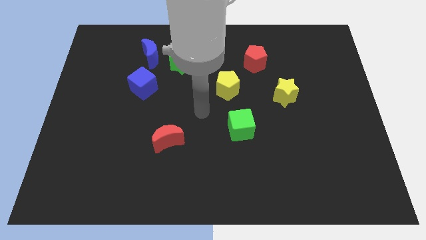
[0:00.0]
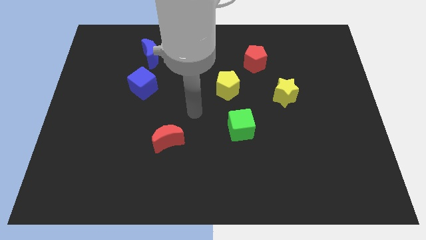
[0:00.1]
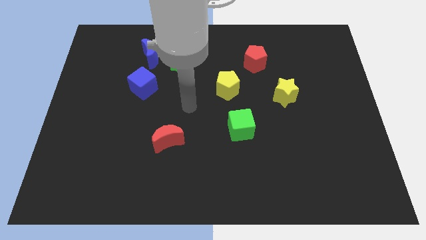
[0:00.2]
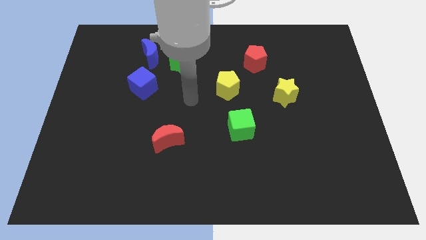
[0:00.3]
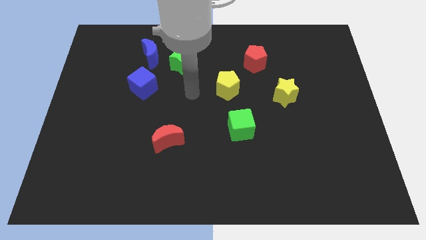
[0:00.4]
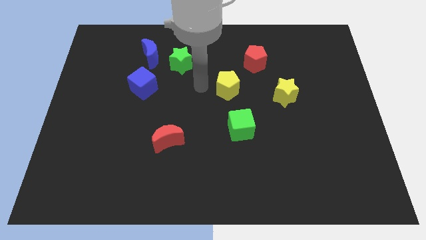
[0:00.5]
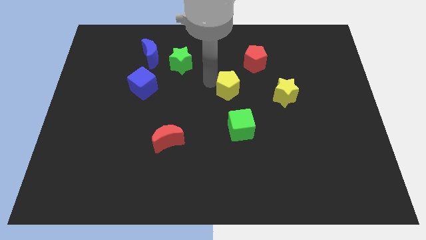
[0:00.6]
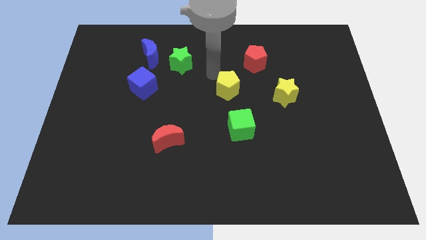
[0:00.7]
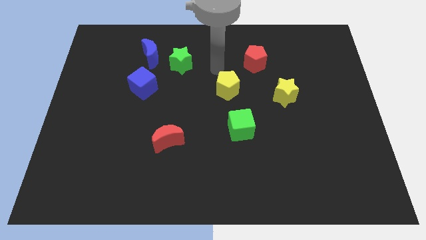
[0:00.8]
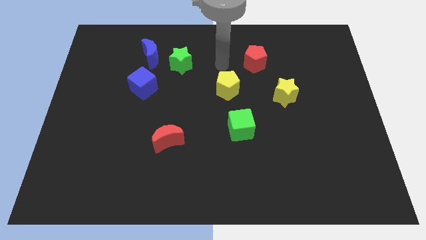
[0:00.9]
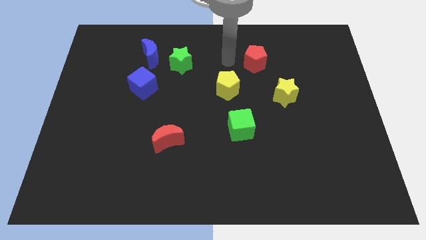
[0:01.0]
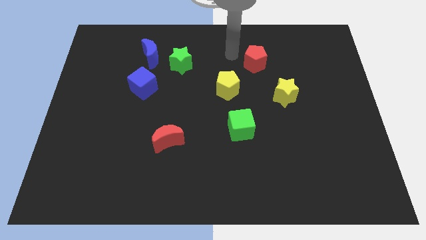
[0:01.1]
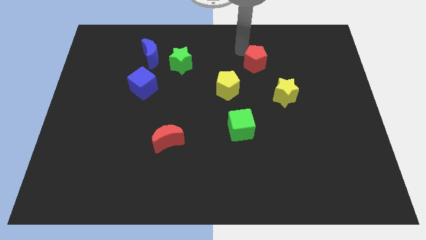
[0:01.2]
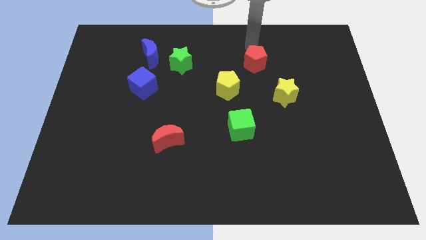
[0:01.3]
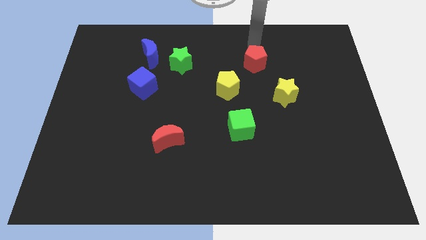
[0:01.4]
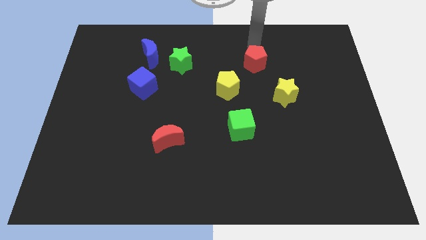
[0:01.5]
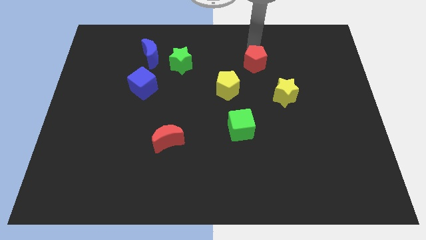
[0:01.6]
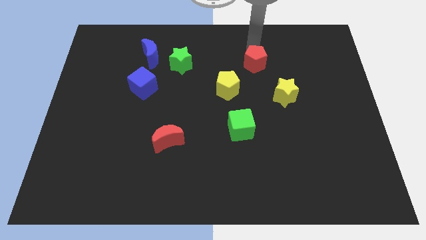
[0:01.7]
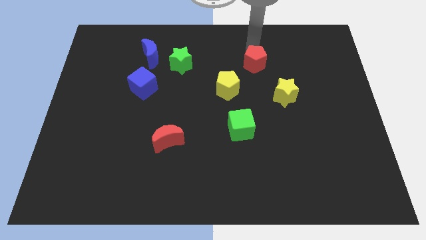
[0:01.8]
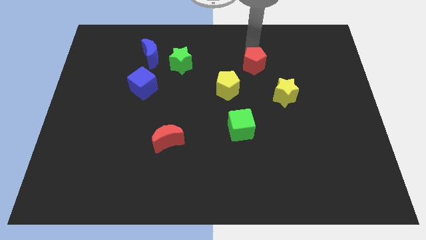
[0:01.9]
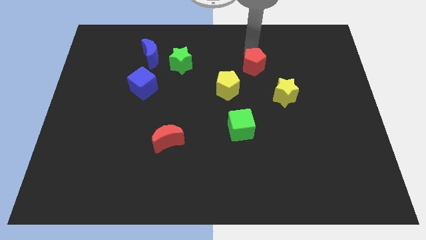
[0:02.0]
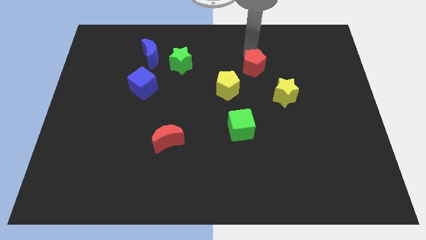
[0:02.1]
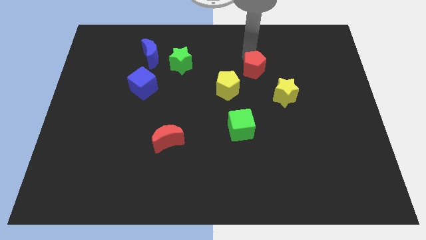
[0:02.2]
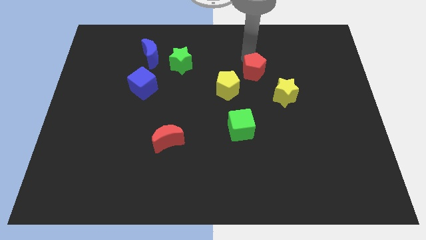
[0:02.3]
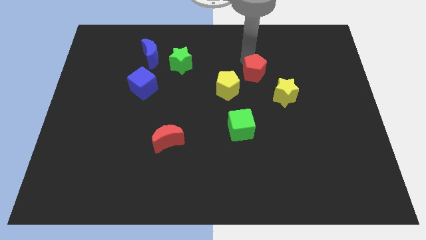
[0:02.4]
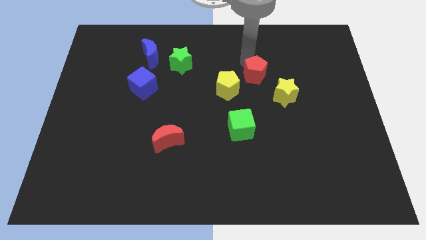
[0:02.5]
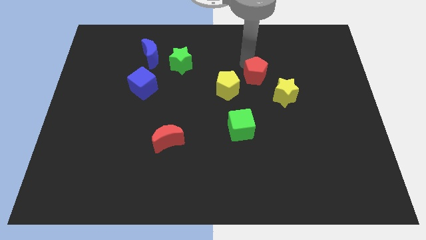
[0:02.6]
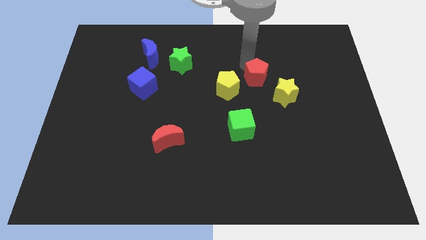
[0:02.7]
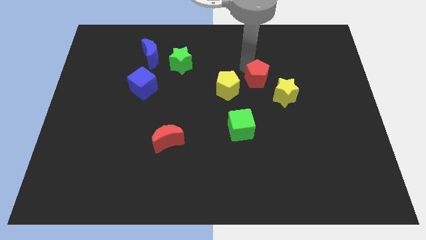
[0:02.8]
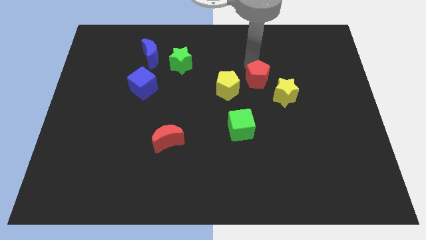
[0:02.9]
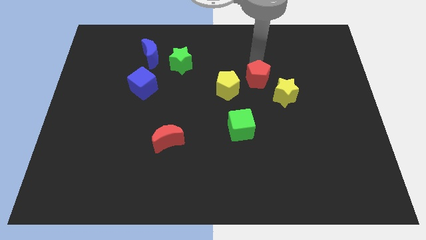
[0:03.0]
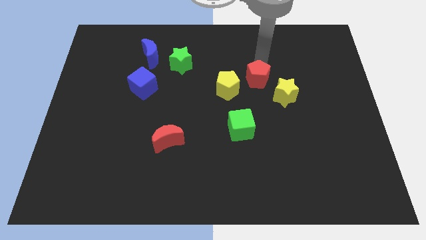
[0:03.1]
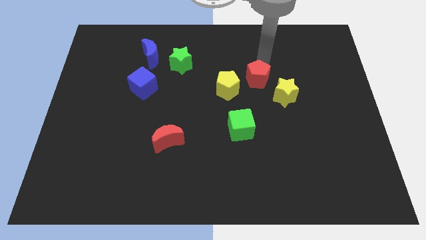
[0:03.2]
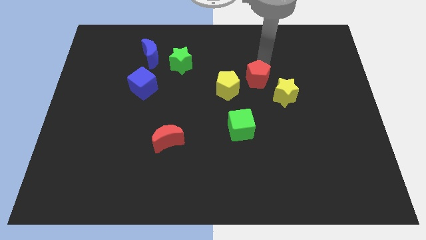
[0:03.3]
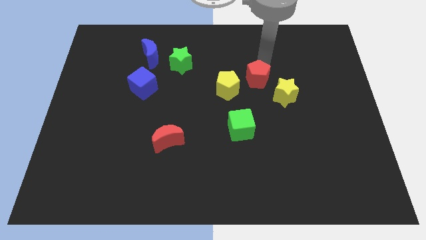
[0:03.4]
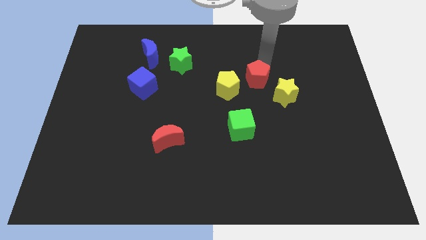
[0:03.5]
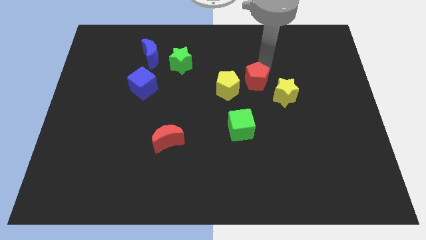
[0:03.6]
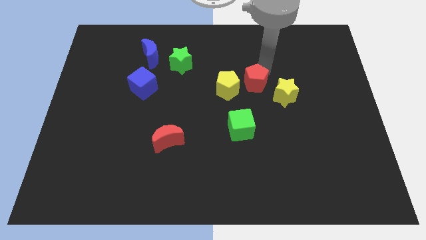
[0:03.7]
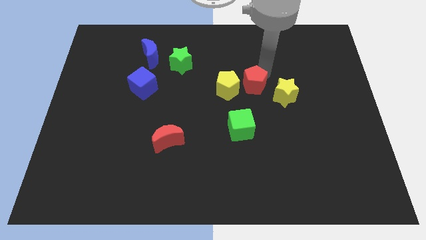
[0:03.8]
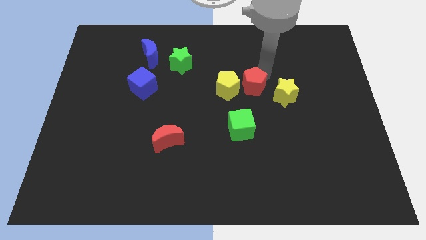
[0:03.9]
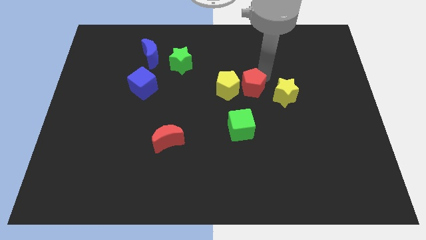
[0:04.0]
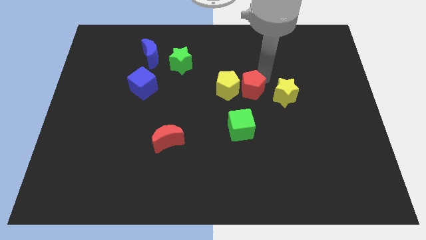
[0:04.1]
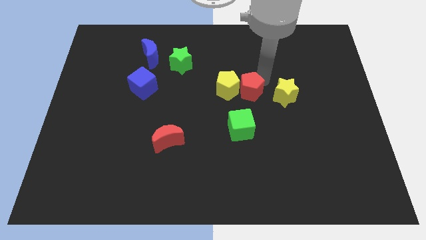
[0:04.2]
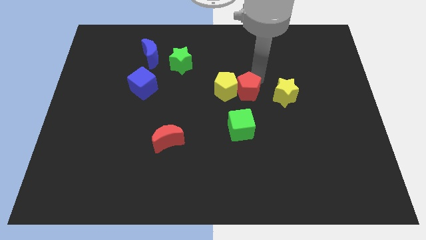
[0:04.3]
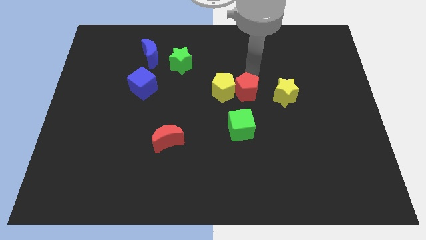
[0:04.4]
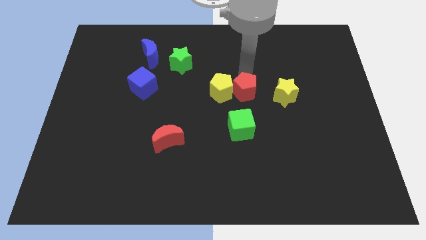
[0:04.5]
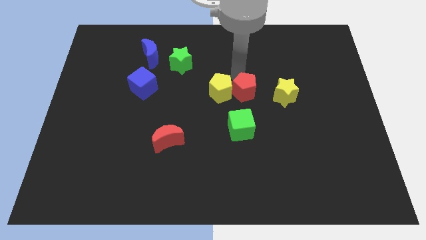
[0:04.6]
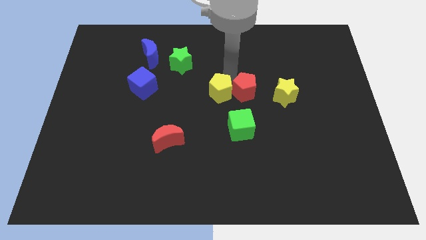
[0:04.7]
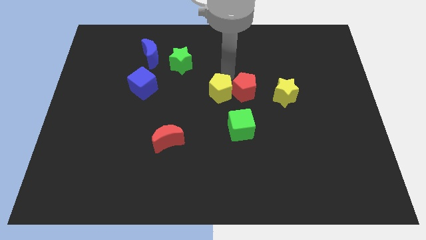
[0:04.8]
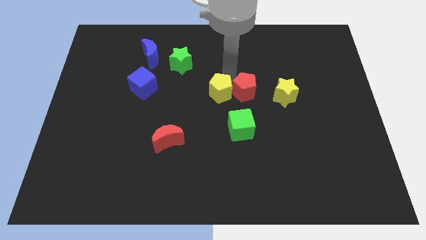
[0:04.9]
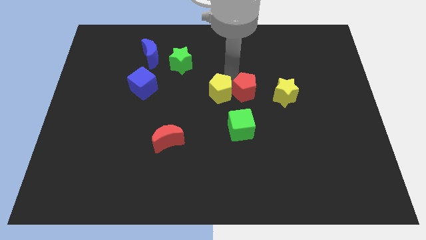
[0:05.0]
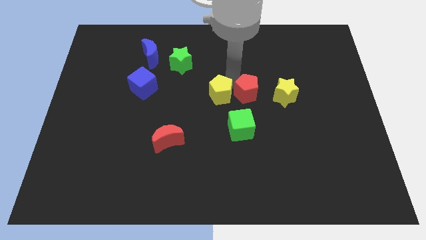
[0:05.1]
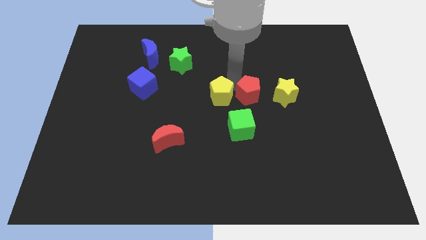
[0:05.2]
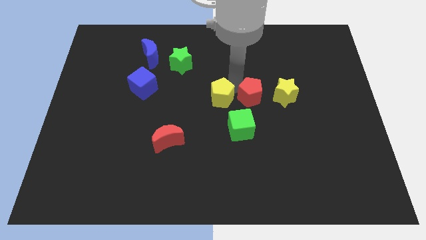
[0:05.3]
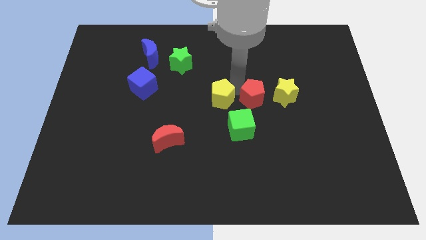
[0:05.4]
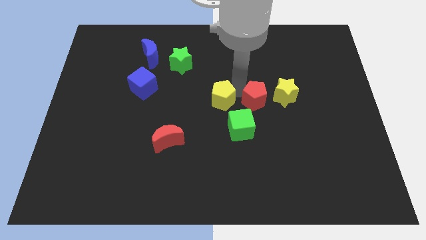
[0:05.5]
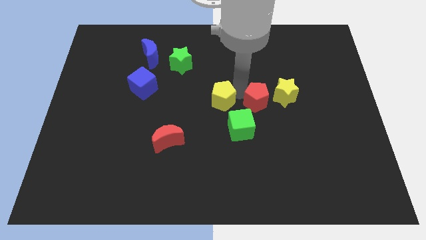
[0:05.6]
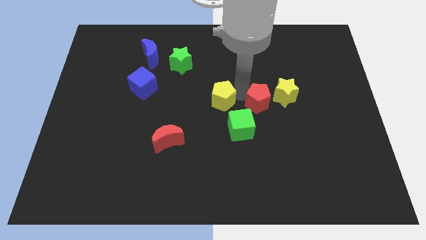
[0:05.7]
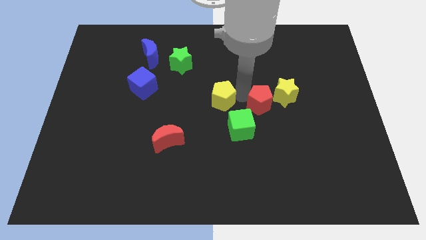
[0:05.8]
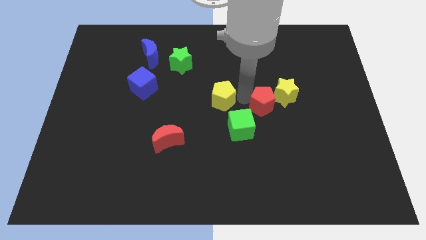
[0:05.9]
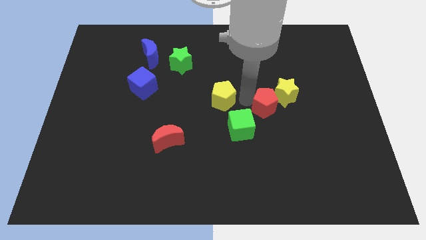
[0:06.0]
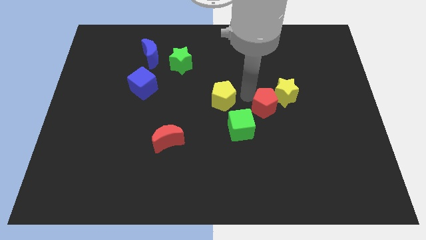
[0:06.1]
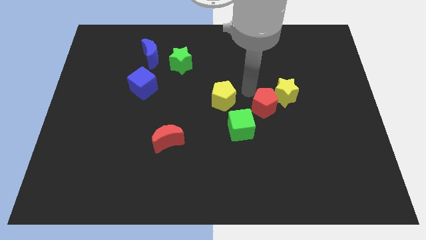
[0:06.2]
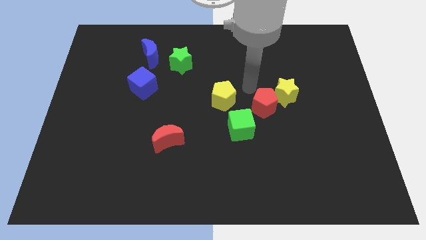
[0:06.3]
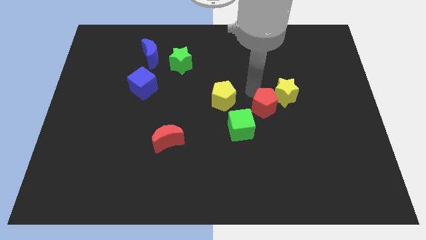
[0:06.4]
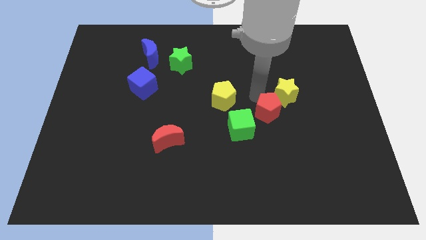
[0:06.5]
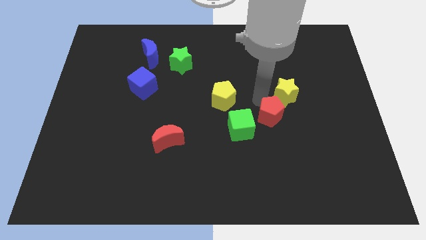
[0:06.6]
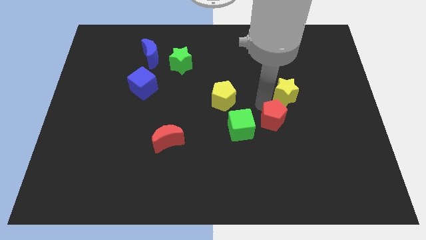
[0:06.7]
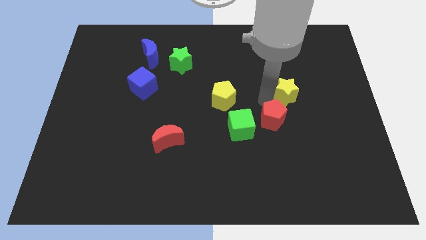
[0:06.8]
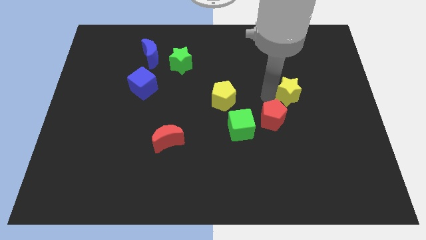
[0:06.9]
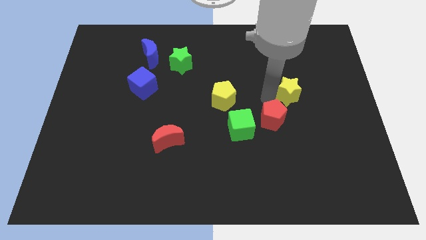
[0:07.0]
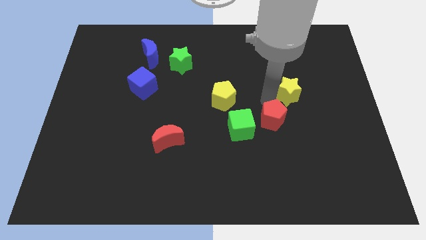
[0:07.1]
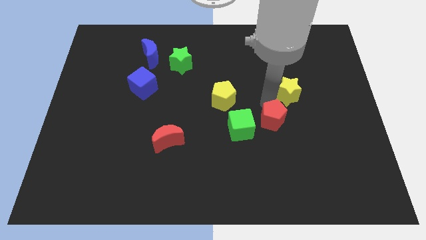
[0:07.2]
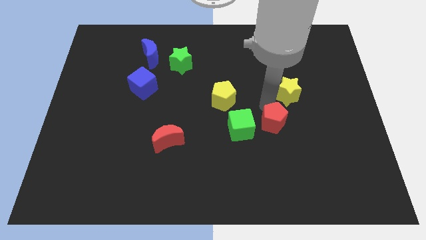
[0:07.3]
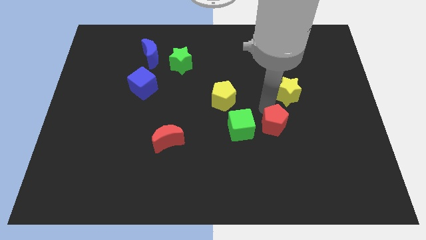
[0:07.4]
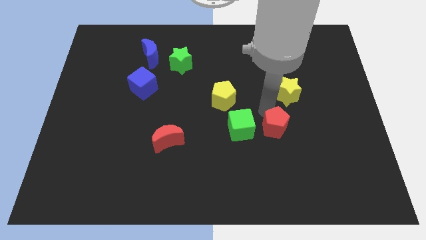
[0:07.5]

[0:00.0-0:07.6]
push the red pentagon downwards

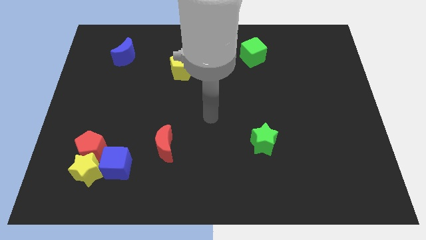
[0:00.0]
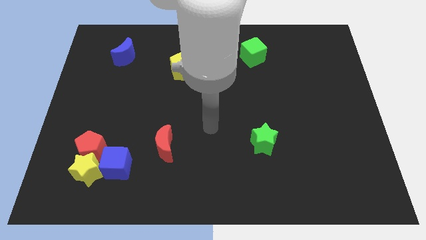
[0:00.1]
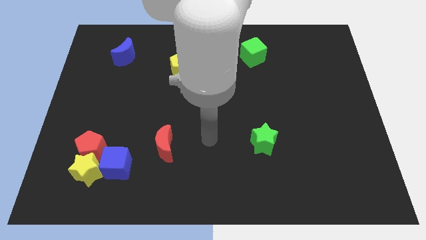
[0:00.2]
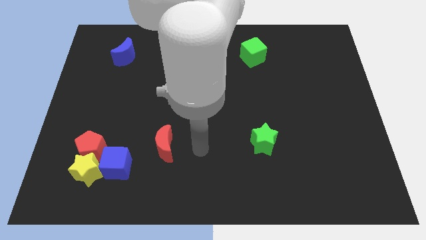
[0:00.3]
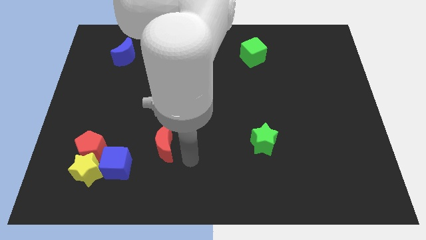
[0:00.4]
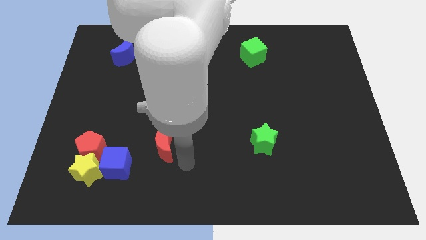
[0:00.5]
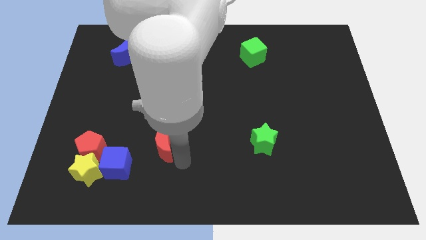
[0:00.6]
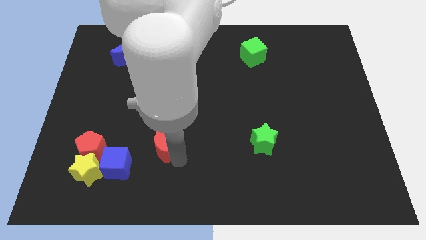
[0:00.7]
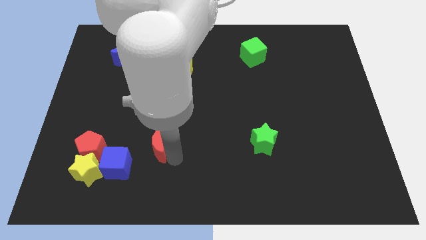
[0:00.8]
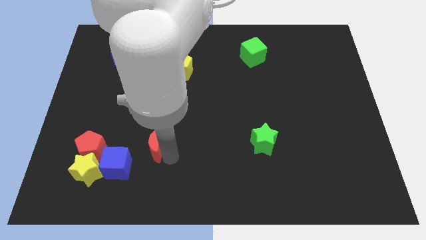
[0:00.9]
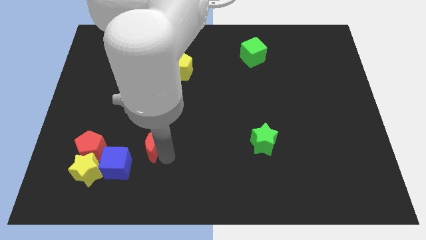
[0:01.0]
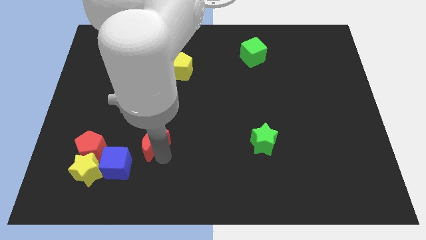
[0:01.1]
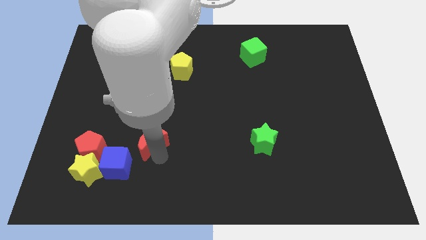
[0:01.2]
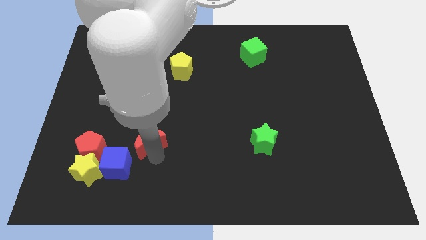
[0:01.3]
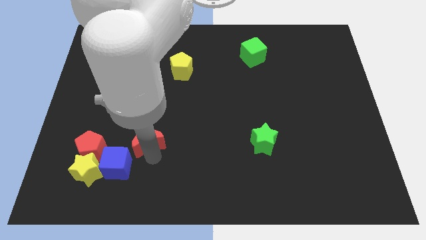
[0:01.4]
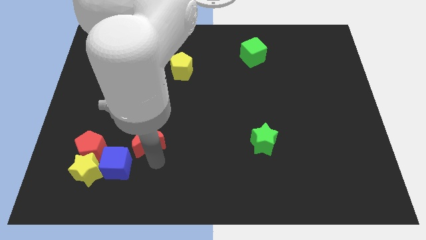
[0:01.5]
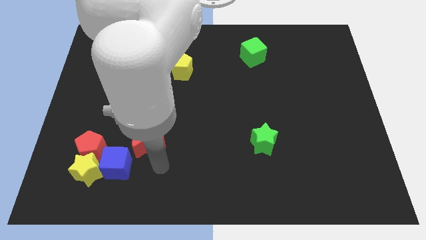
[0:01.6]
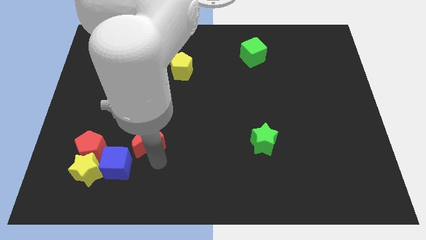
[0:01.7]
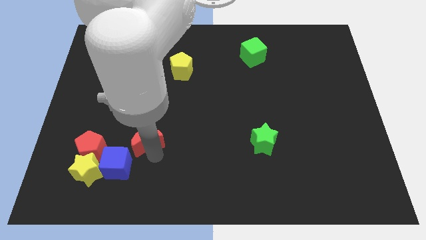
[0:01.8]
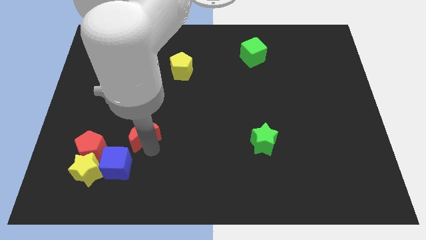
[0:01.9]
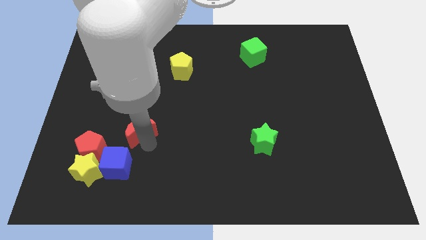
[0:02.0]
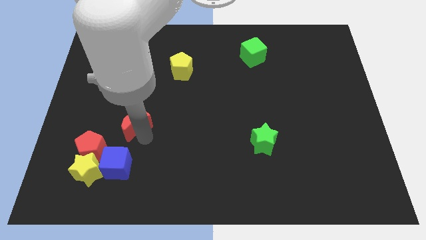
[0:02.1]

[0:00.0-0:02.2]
push the red moon a bit upwards and left diagonally
